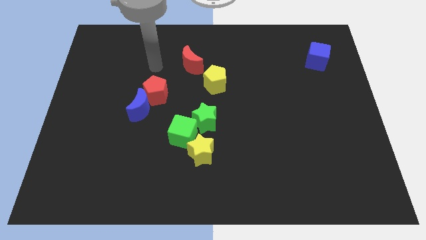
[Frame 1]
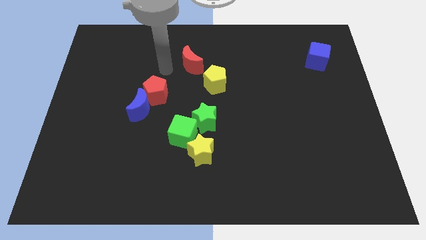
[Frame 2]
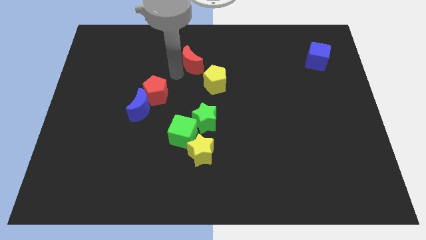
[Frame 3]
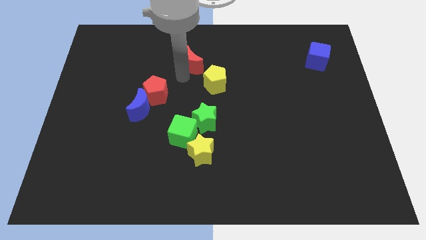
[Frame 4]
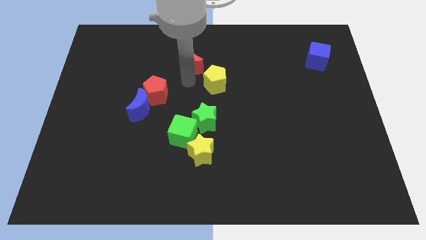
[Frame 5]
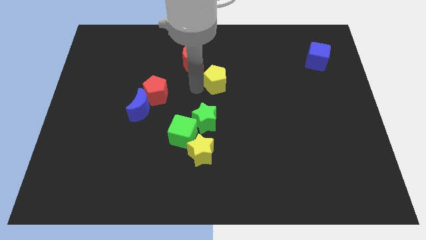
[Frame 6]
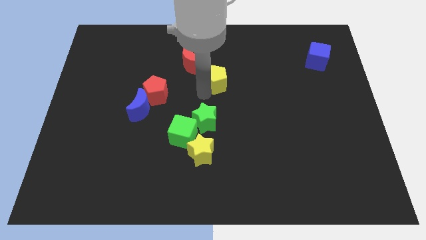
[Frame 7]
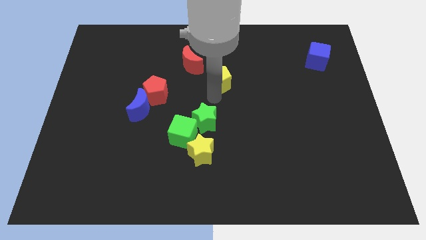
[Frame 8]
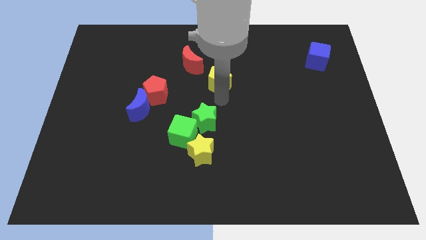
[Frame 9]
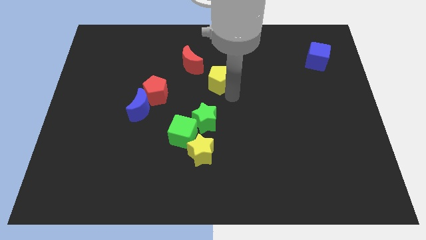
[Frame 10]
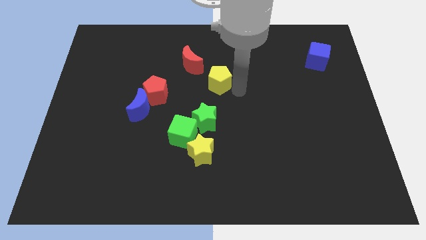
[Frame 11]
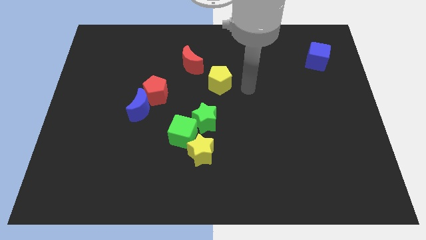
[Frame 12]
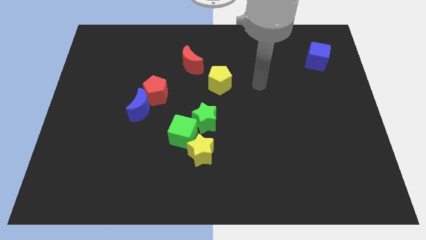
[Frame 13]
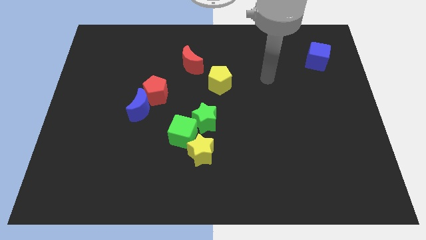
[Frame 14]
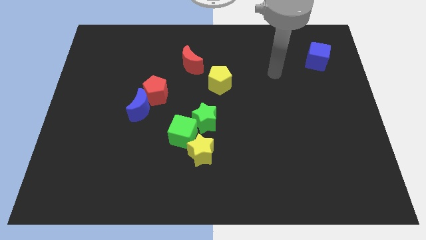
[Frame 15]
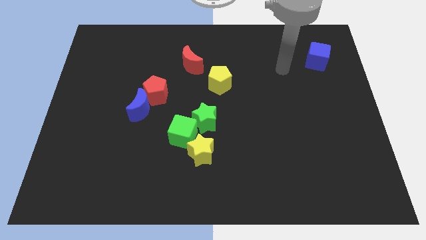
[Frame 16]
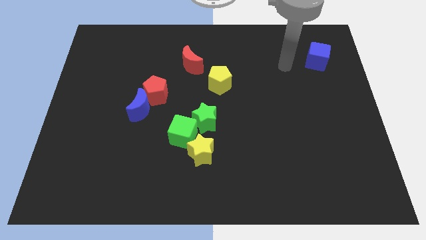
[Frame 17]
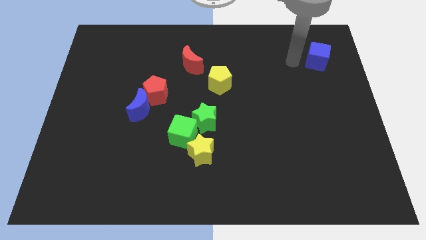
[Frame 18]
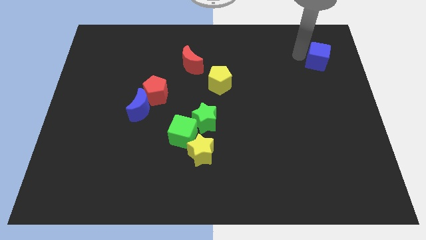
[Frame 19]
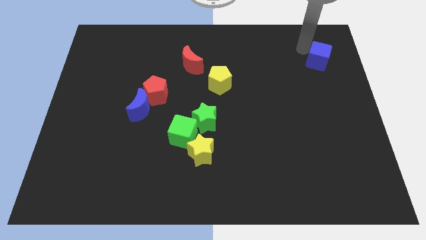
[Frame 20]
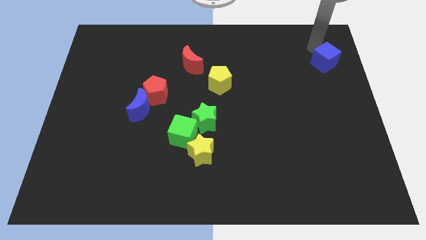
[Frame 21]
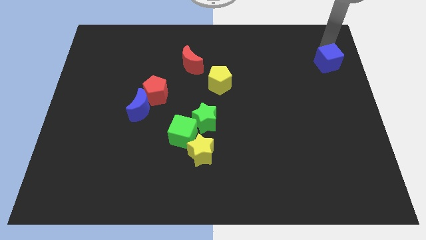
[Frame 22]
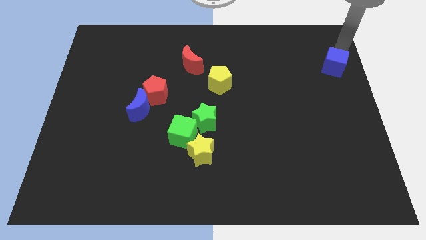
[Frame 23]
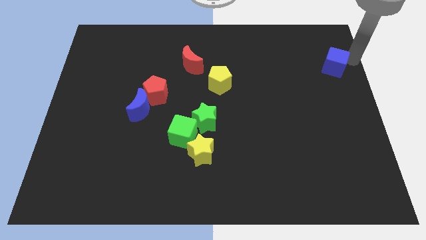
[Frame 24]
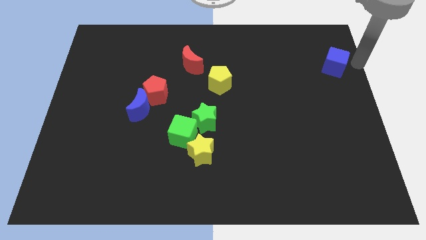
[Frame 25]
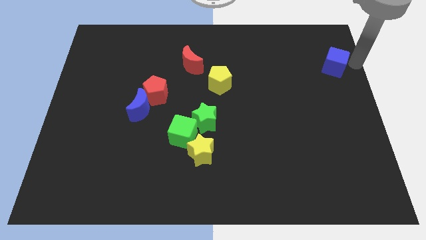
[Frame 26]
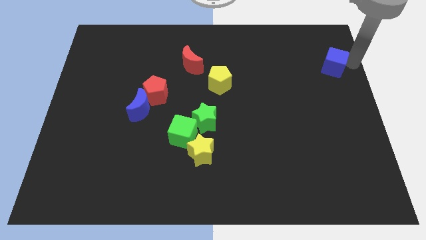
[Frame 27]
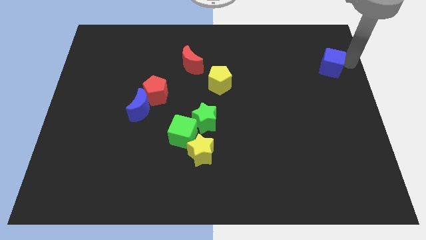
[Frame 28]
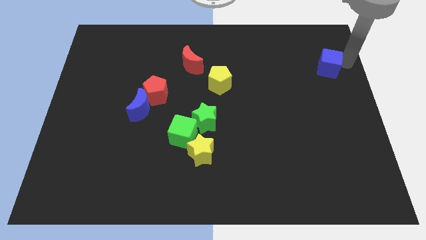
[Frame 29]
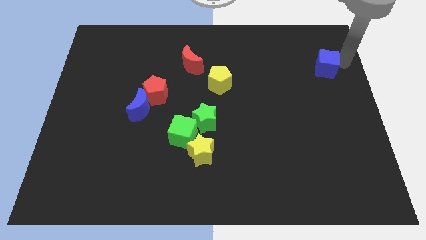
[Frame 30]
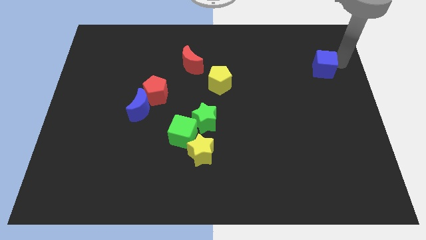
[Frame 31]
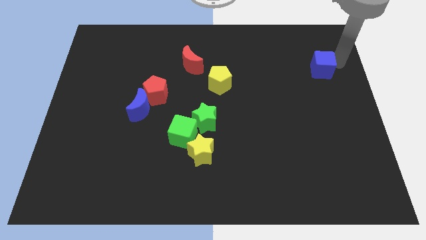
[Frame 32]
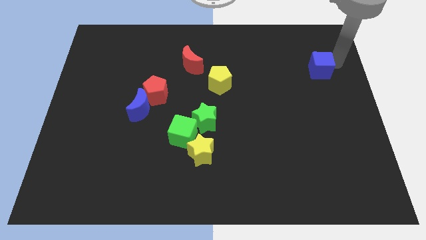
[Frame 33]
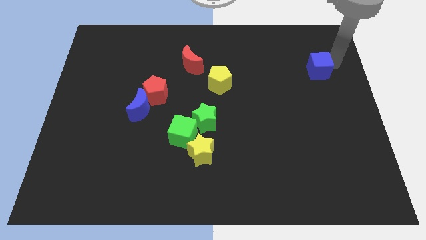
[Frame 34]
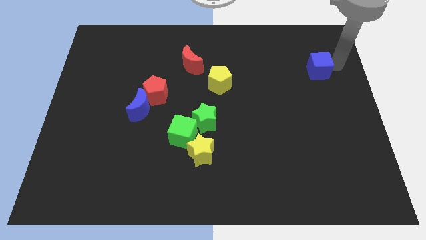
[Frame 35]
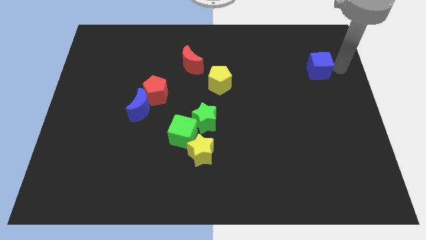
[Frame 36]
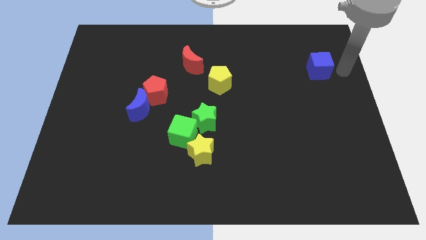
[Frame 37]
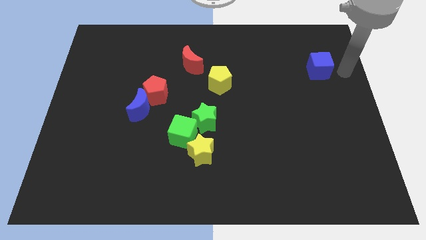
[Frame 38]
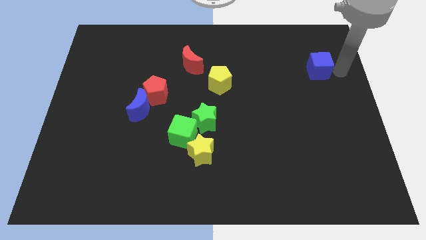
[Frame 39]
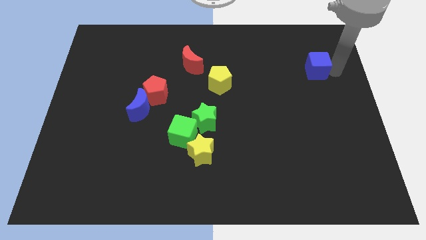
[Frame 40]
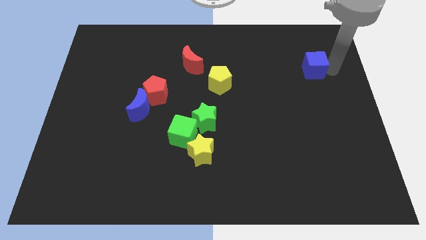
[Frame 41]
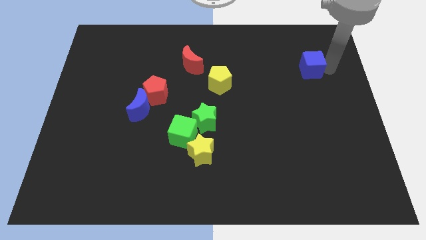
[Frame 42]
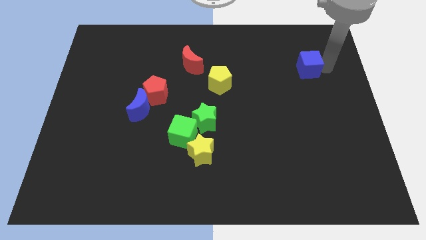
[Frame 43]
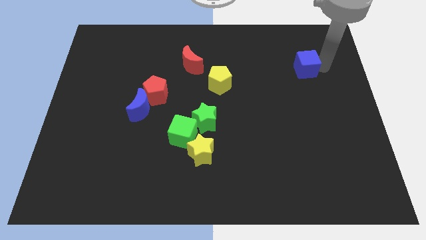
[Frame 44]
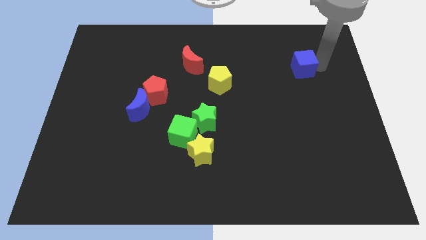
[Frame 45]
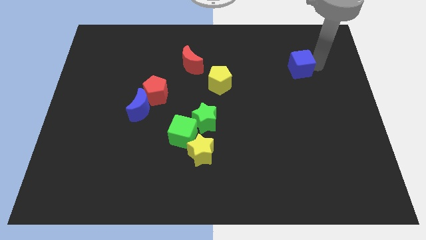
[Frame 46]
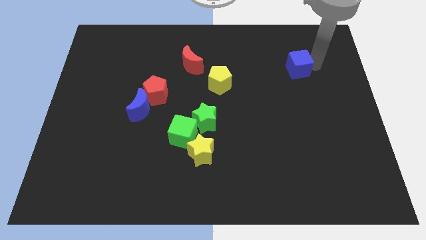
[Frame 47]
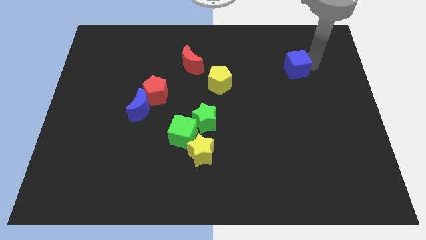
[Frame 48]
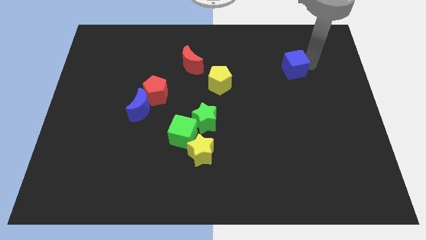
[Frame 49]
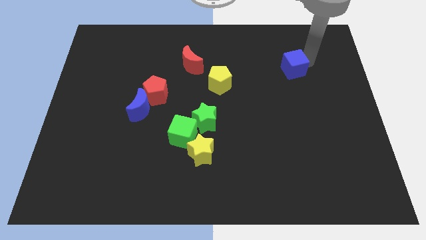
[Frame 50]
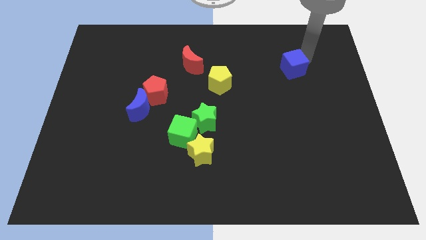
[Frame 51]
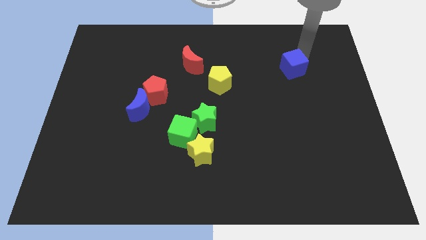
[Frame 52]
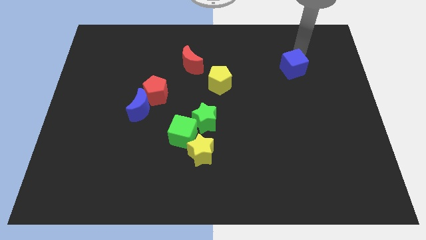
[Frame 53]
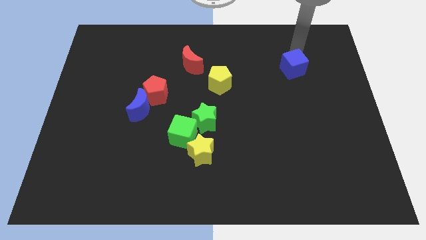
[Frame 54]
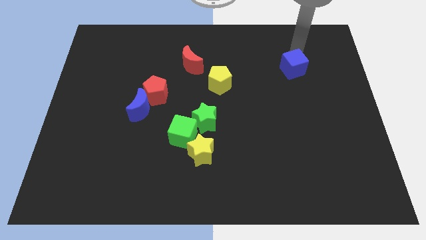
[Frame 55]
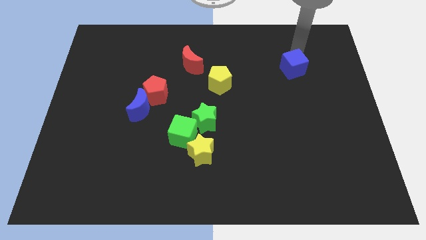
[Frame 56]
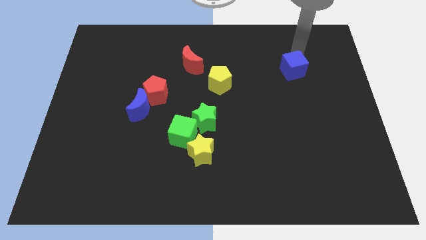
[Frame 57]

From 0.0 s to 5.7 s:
slide the blue cube a little bit down and then left

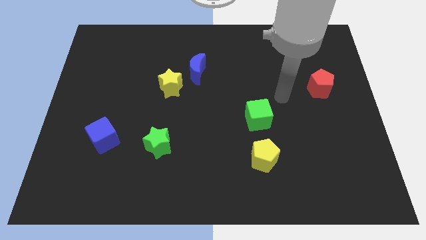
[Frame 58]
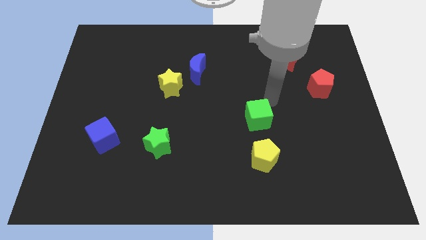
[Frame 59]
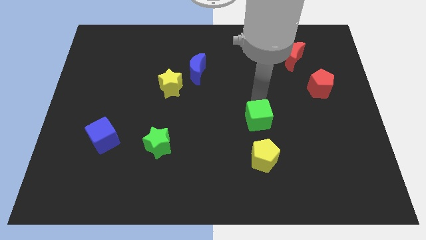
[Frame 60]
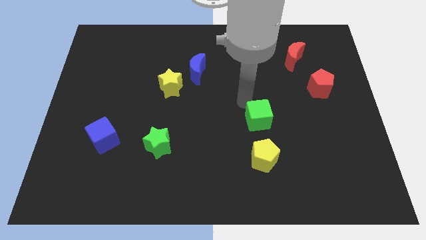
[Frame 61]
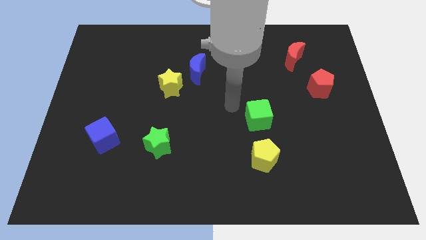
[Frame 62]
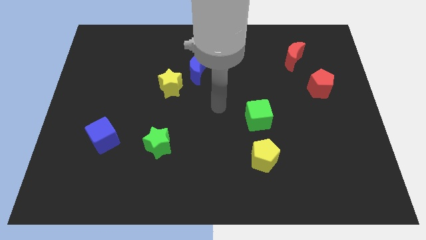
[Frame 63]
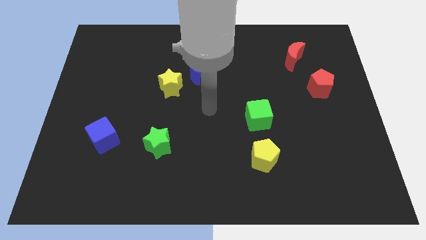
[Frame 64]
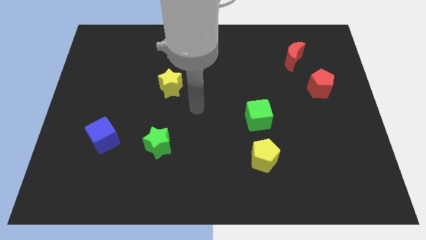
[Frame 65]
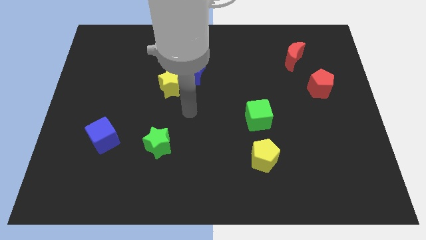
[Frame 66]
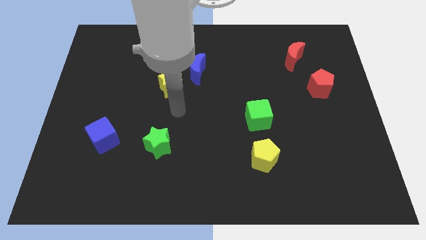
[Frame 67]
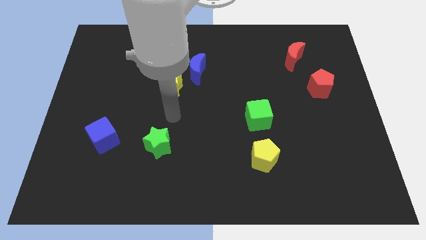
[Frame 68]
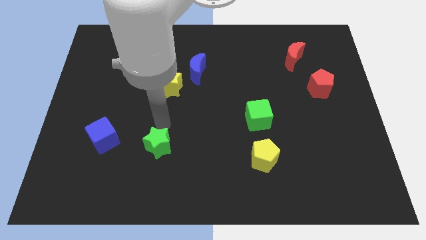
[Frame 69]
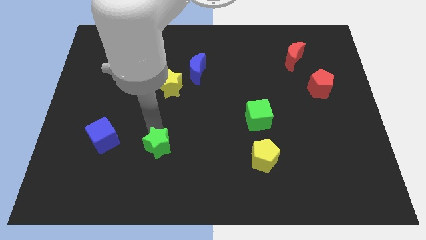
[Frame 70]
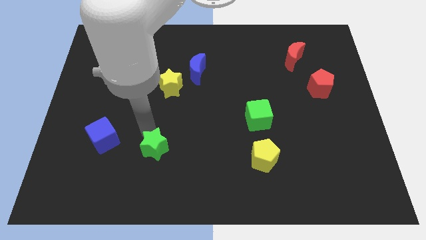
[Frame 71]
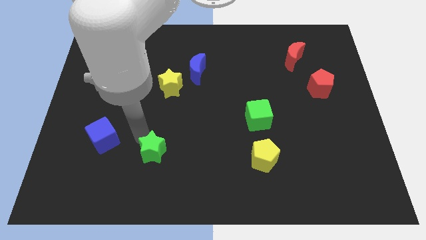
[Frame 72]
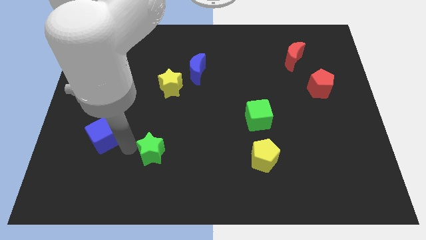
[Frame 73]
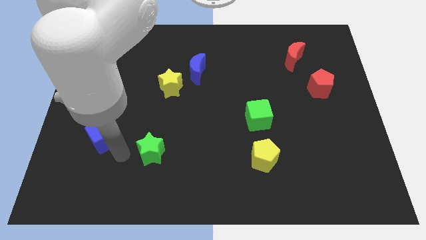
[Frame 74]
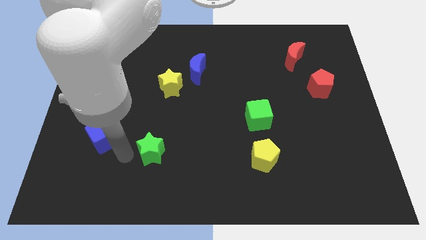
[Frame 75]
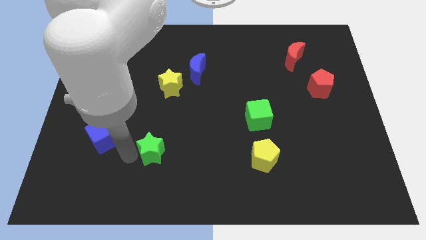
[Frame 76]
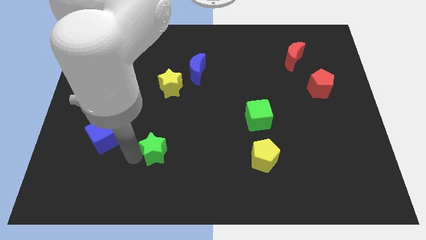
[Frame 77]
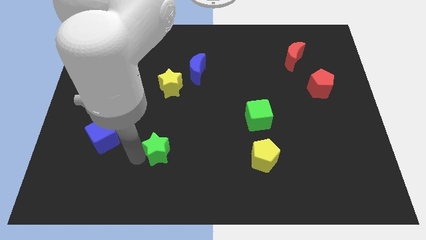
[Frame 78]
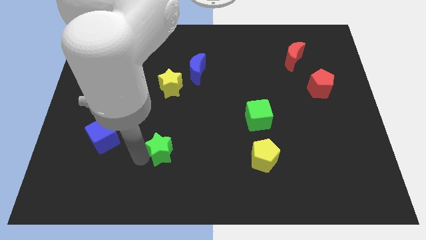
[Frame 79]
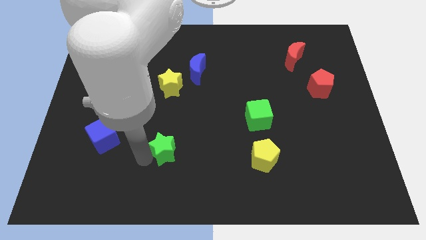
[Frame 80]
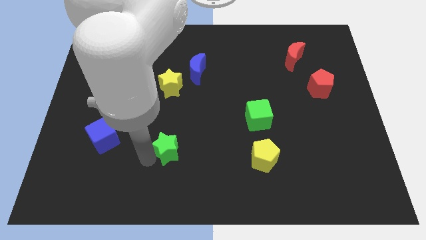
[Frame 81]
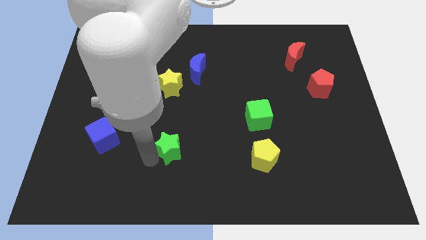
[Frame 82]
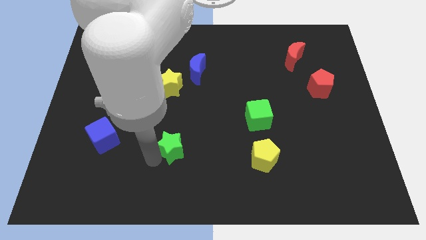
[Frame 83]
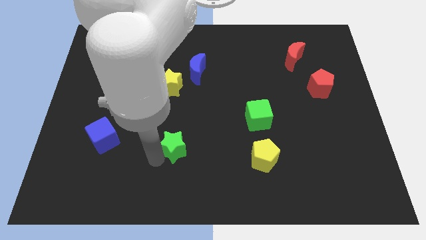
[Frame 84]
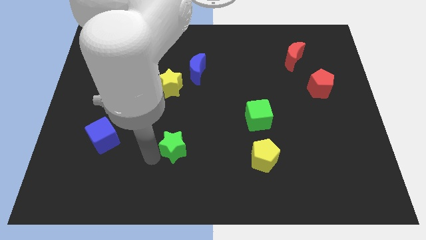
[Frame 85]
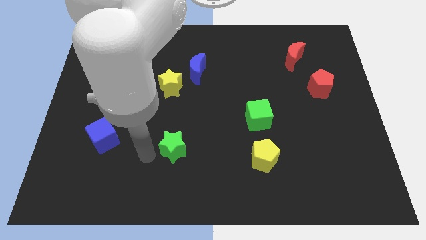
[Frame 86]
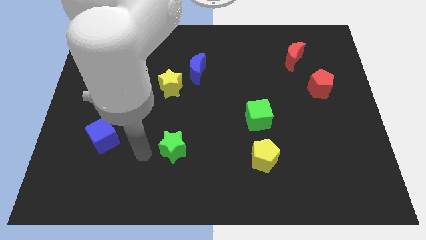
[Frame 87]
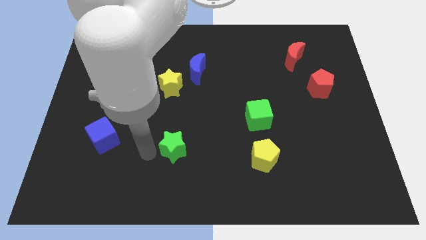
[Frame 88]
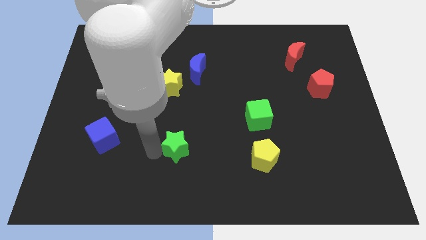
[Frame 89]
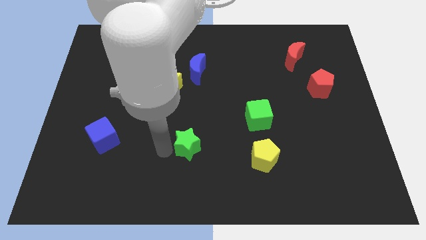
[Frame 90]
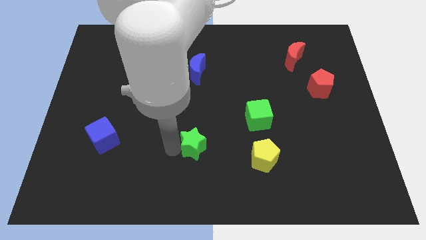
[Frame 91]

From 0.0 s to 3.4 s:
slide the green star right a little bit
